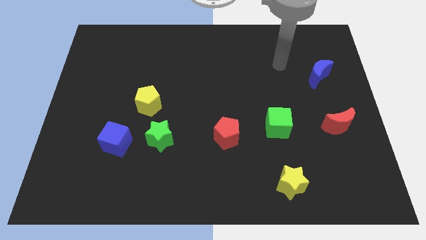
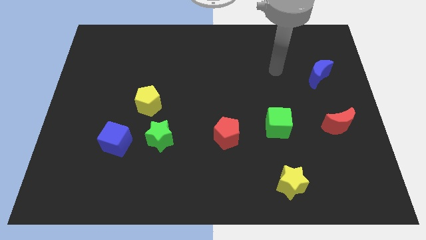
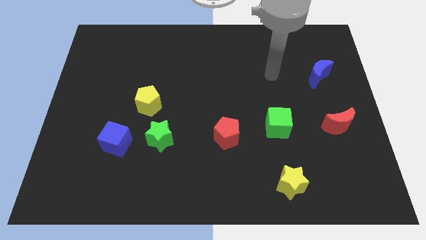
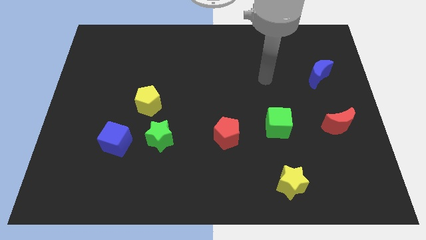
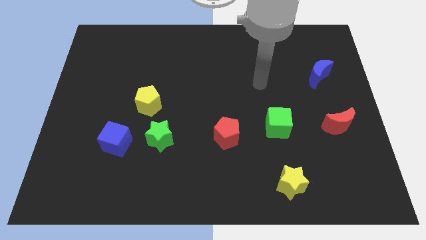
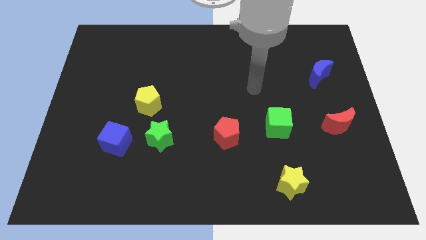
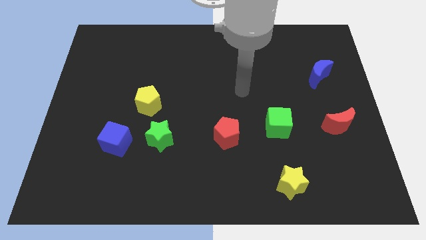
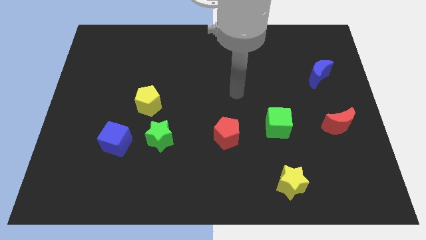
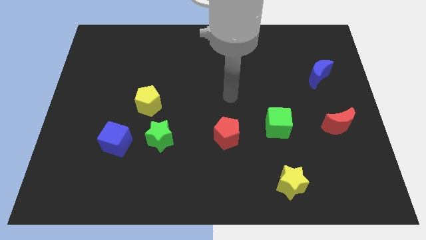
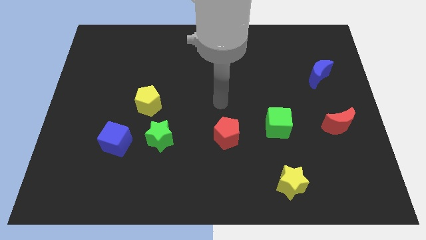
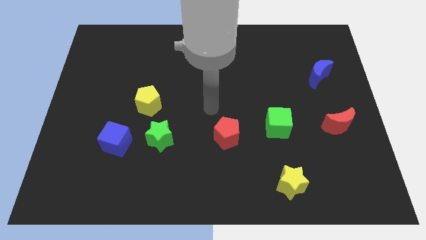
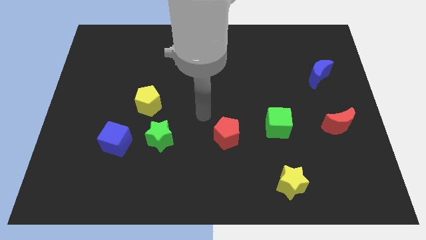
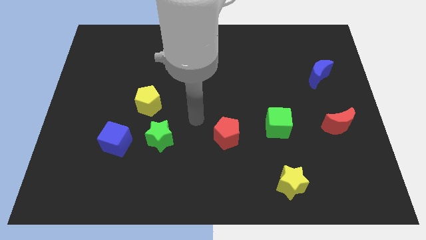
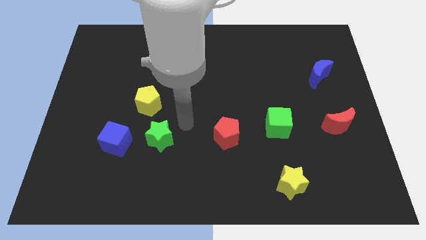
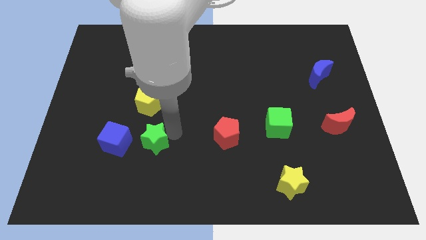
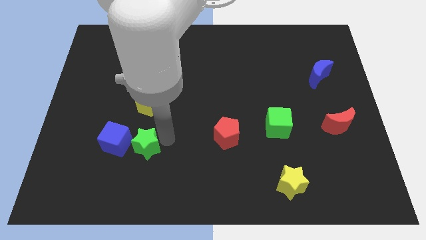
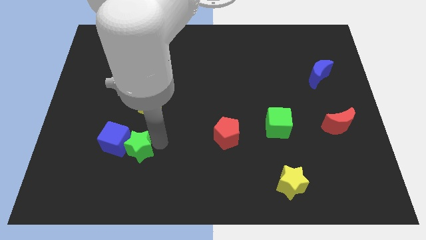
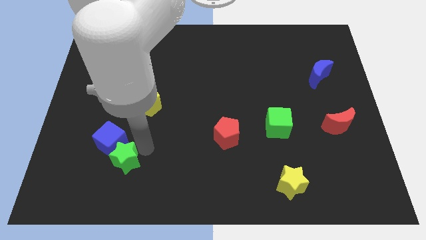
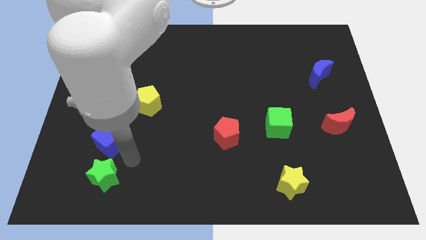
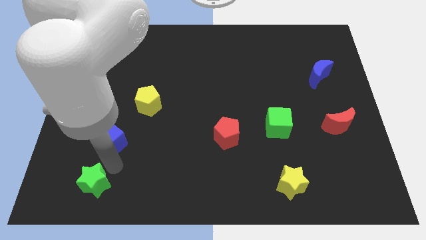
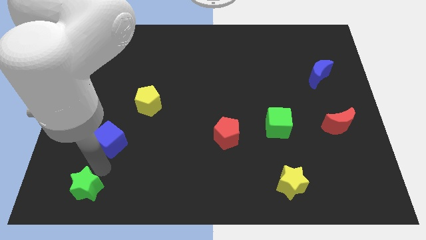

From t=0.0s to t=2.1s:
pull the blue cube apart from the green star

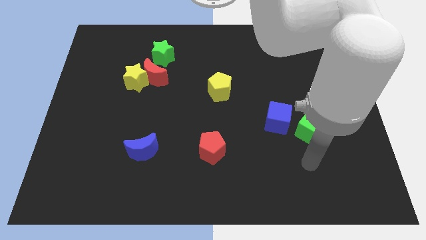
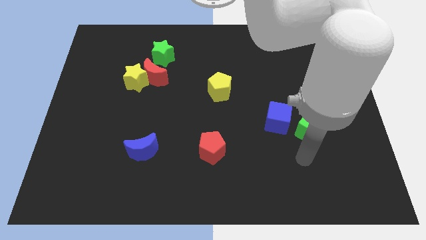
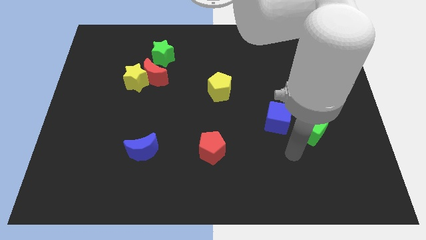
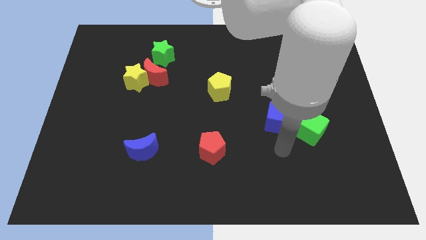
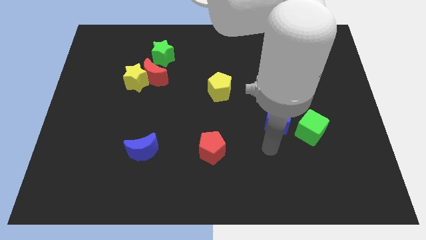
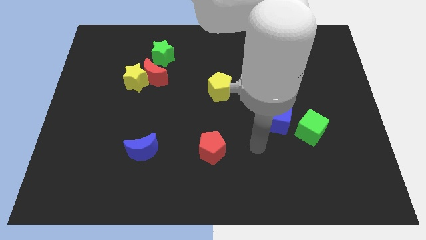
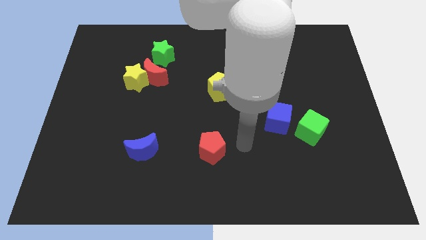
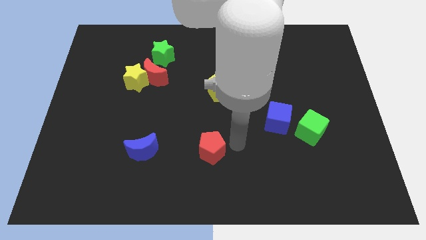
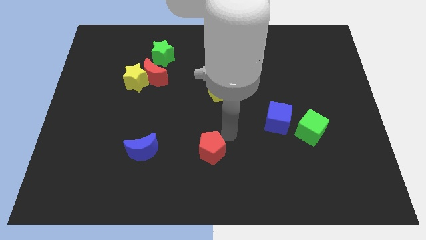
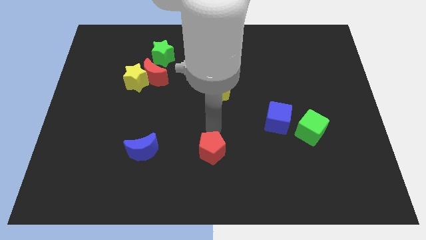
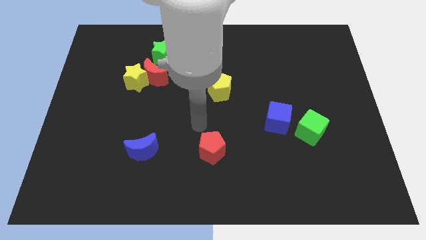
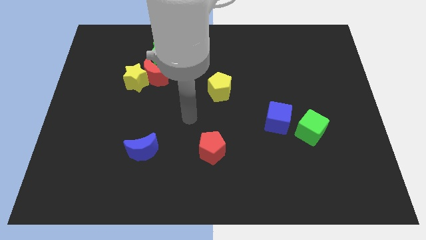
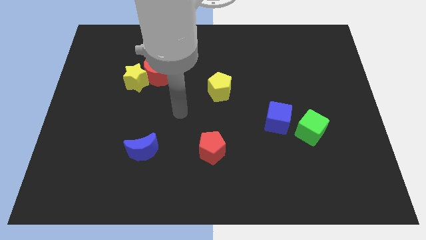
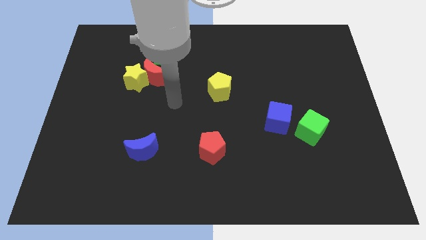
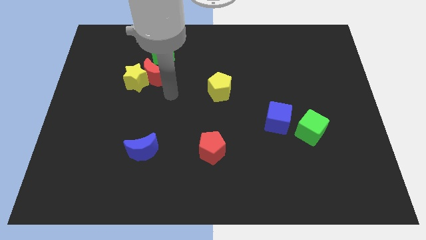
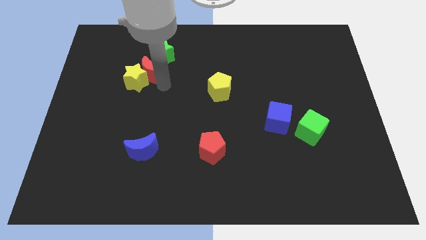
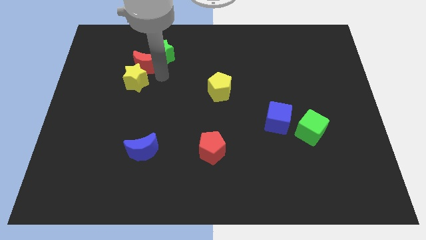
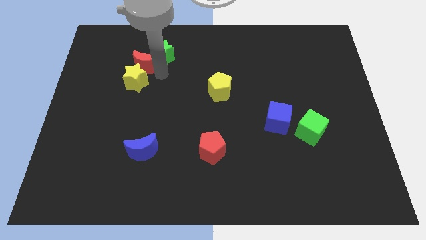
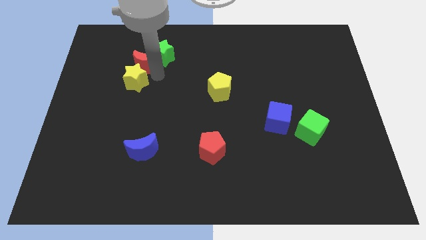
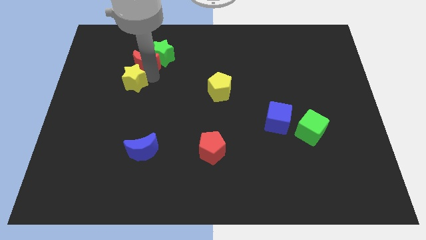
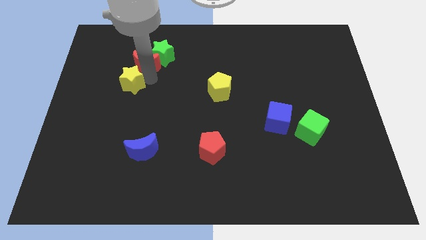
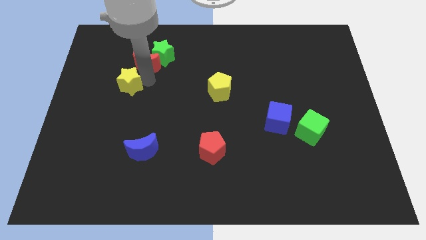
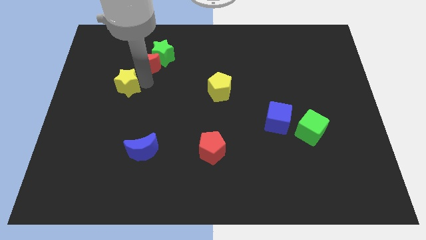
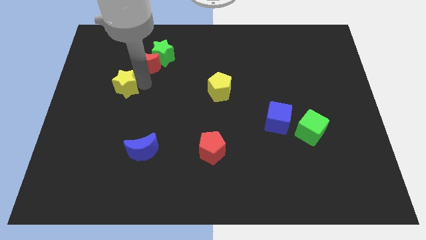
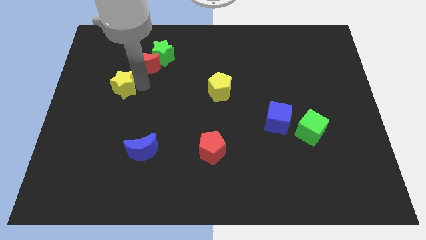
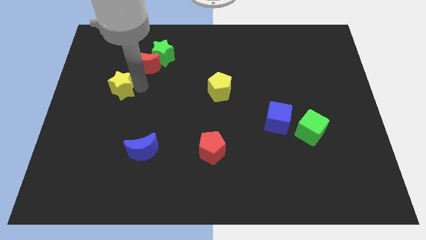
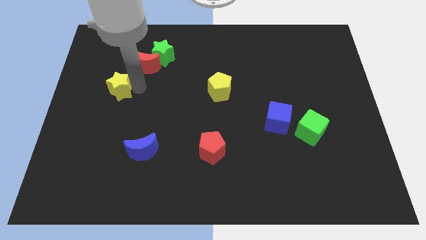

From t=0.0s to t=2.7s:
move the yellow star away from the red moon

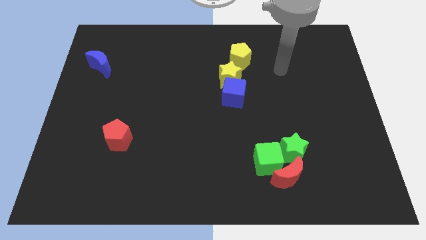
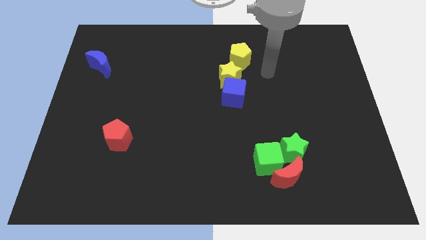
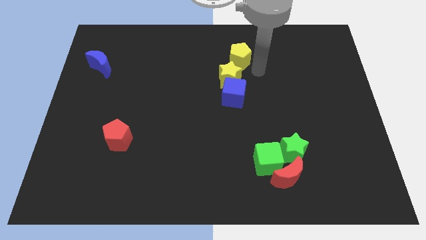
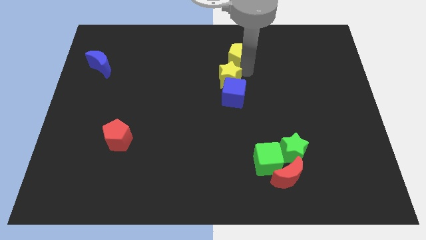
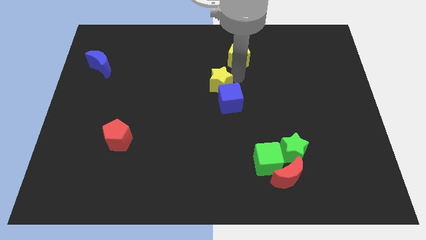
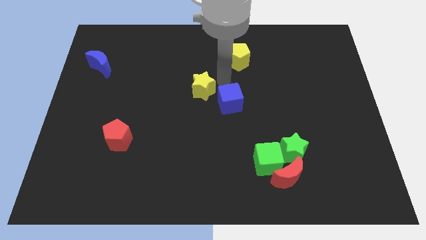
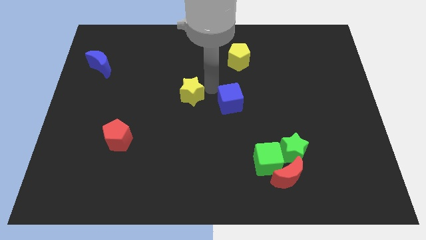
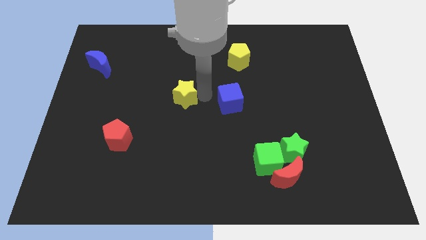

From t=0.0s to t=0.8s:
pull the blue cube apart from the yellow star

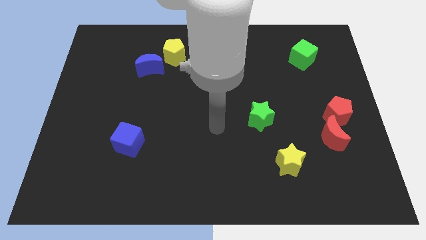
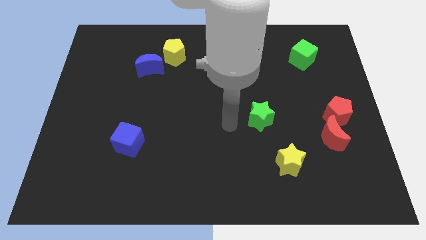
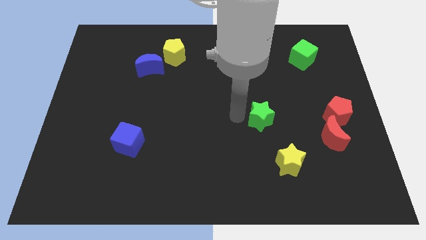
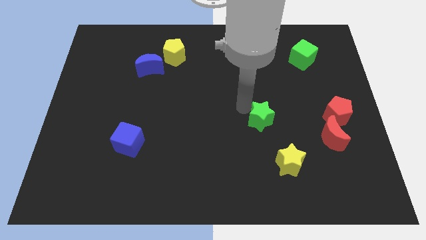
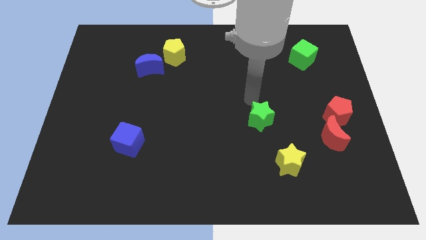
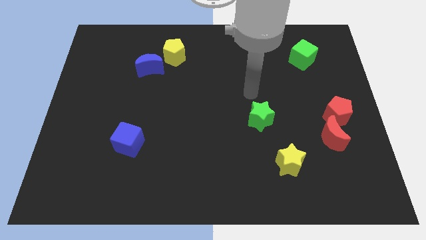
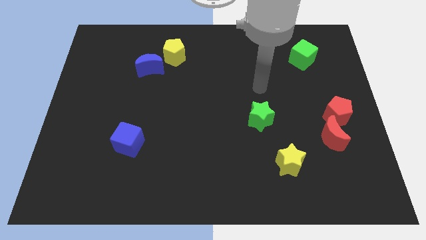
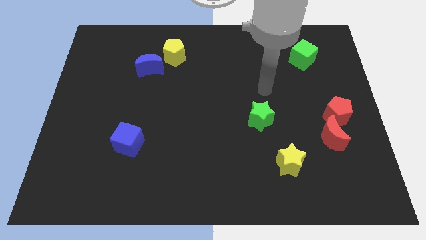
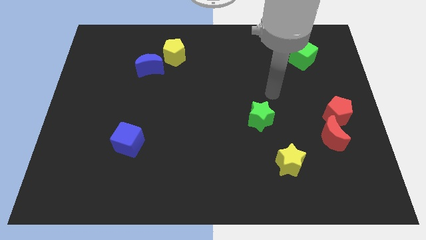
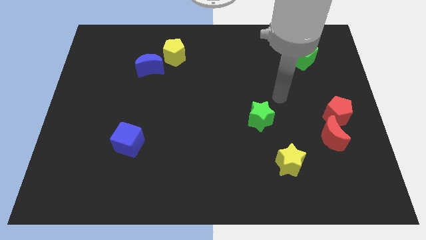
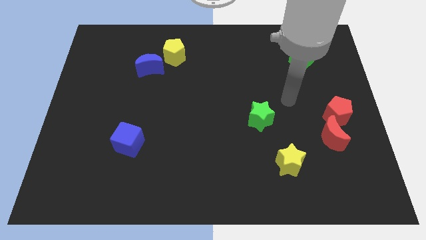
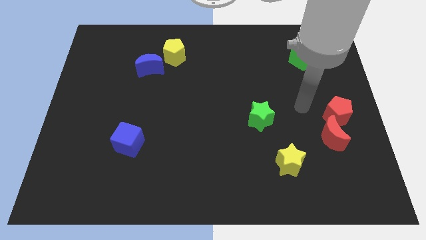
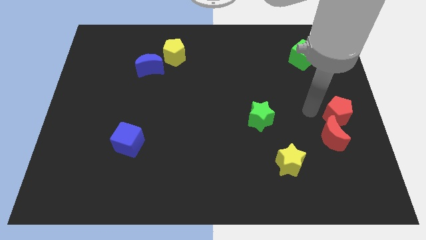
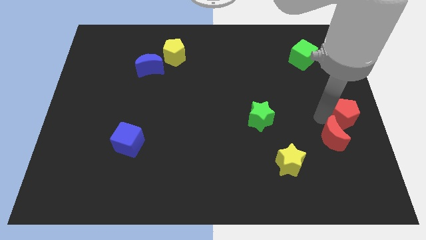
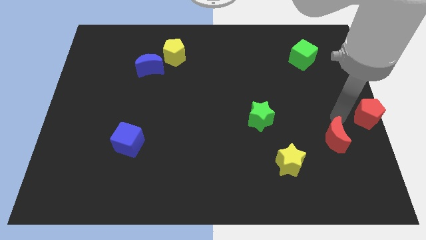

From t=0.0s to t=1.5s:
separate the red moon from the red pentagon

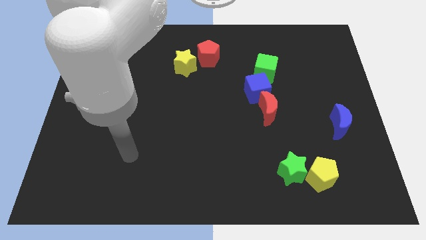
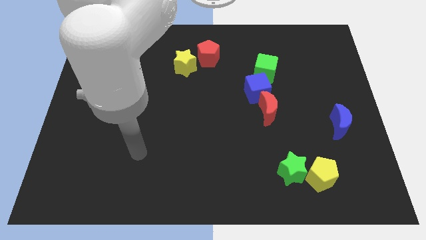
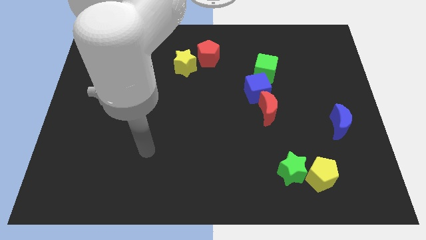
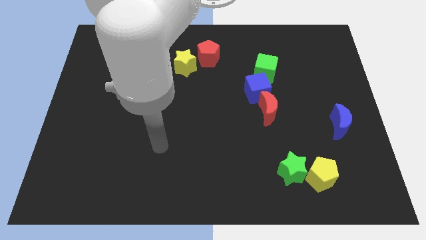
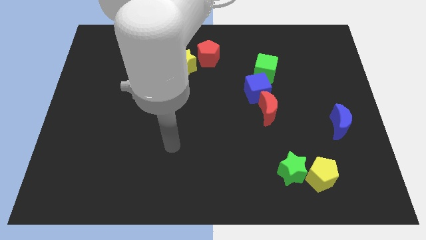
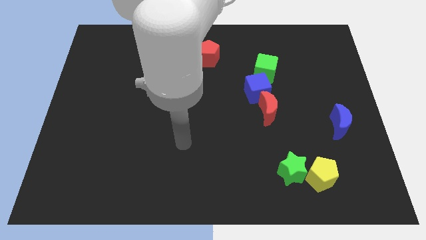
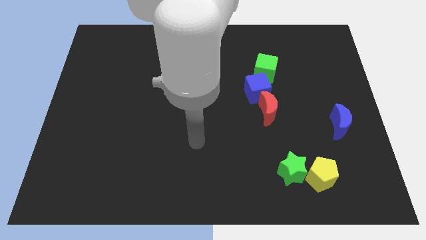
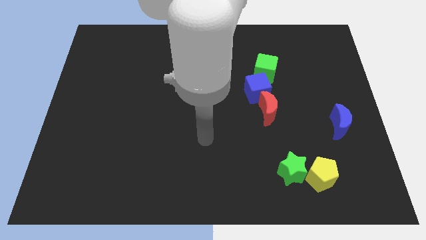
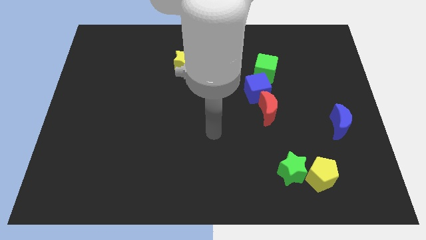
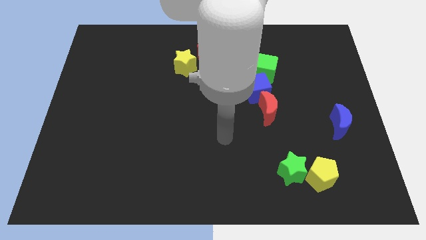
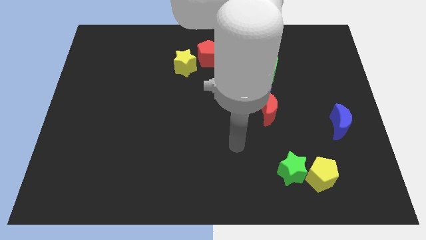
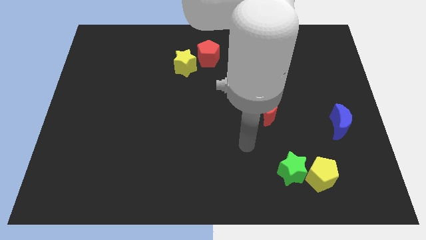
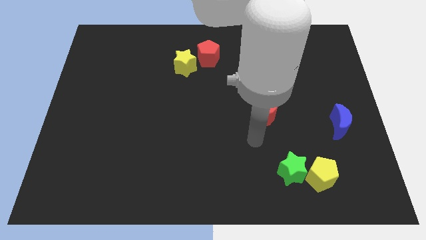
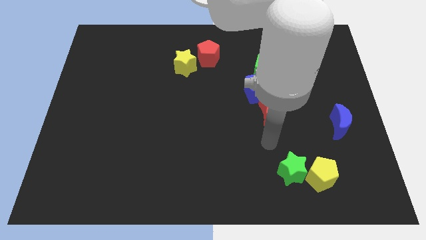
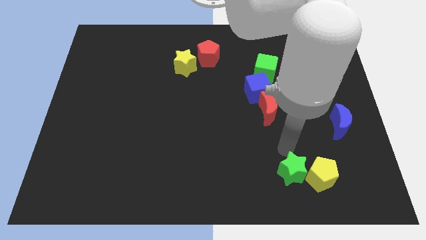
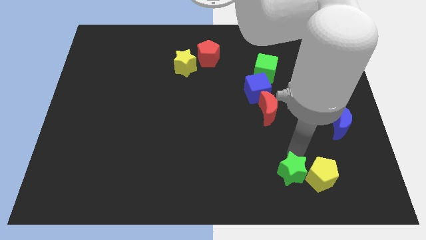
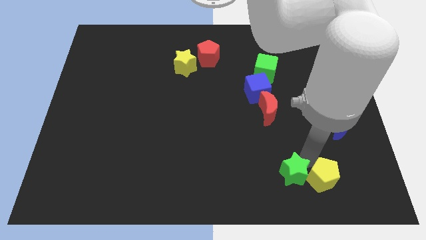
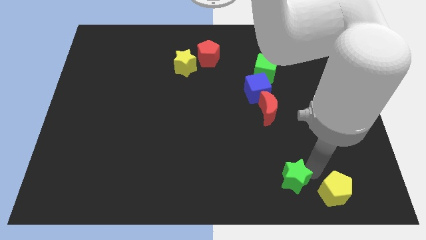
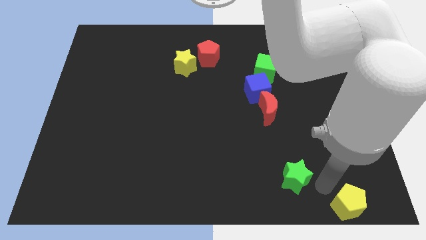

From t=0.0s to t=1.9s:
pull the green star apart from the yellow pentagon

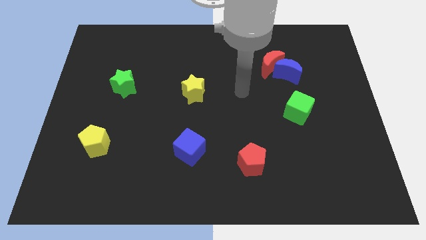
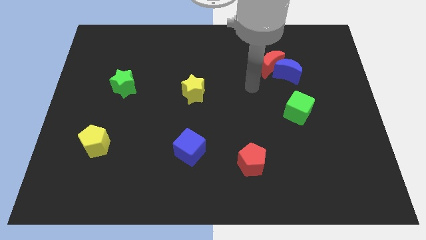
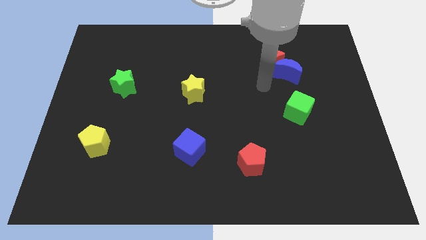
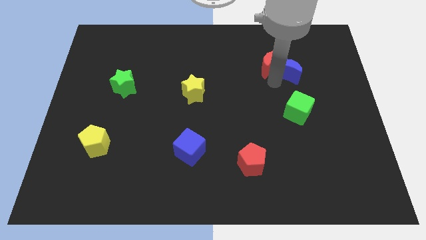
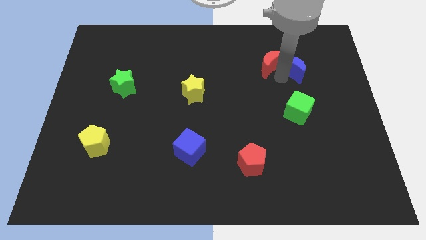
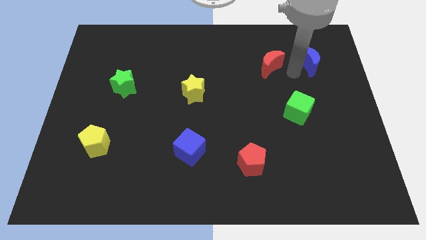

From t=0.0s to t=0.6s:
move the red moon away from the blue moon
